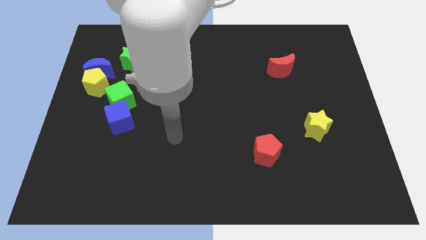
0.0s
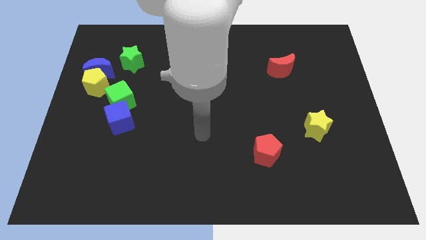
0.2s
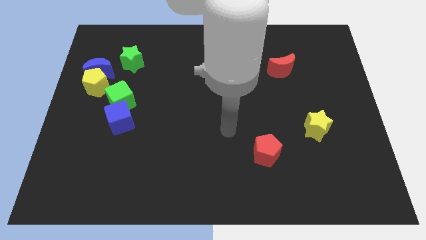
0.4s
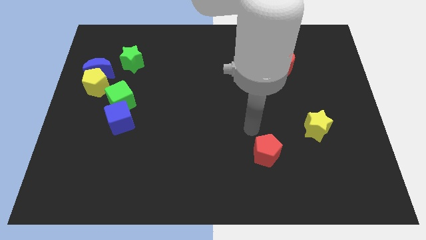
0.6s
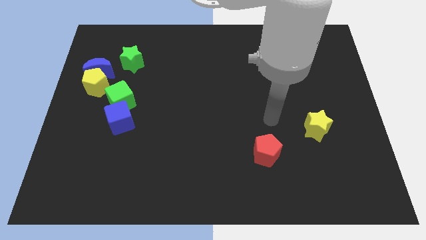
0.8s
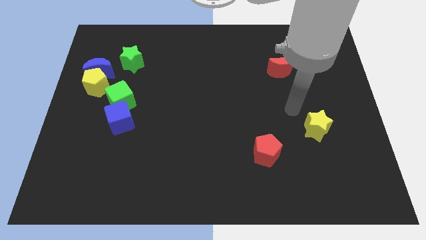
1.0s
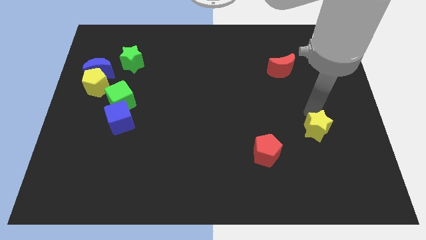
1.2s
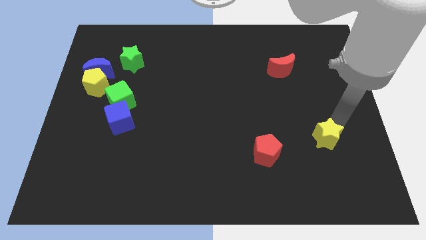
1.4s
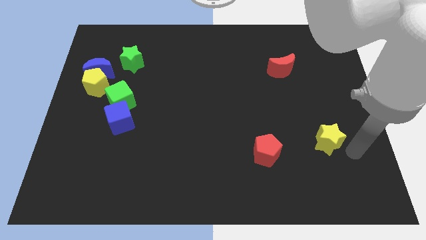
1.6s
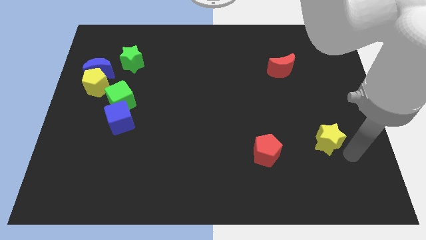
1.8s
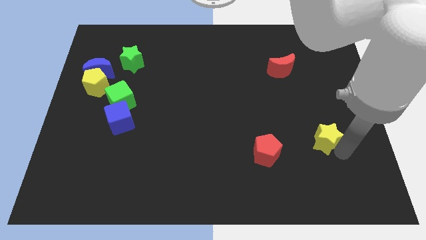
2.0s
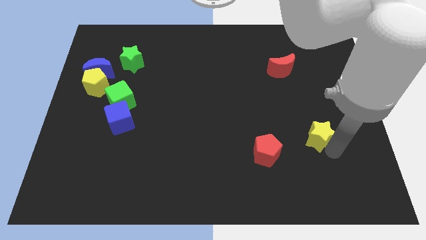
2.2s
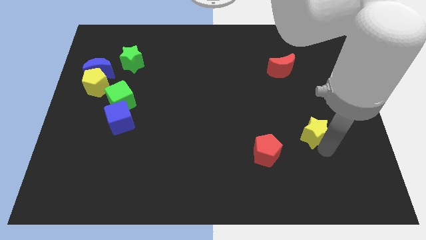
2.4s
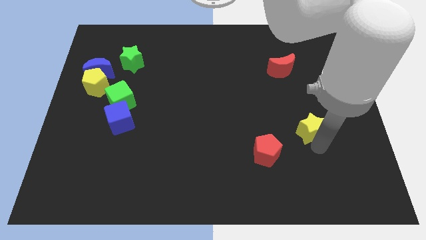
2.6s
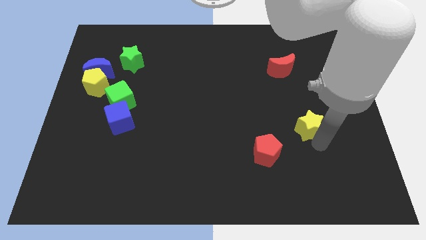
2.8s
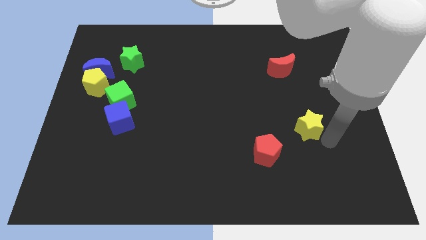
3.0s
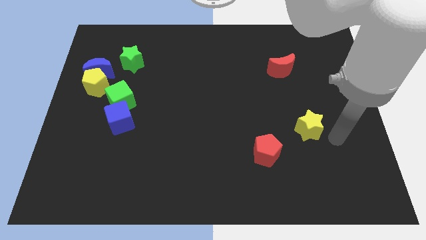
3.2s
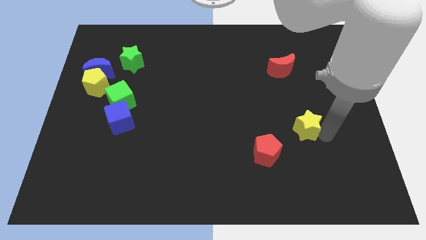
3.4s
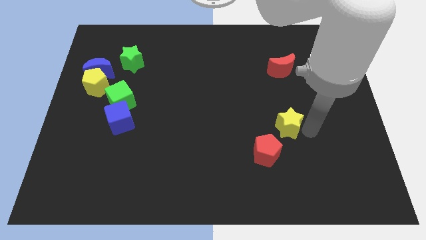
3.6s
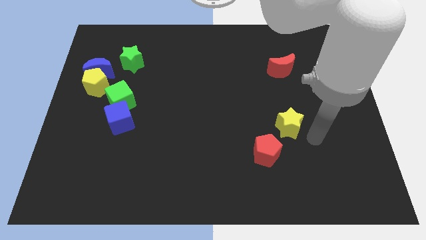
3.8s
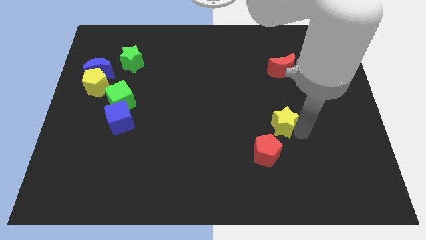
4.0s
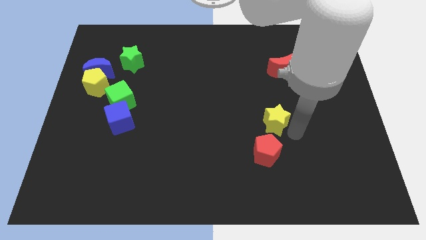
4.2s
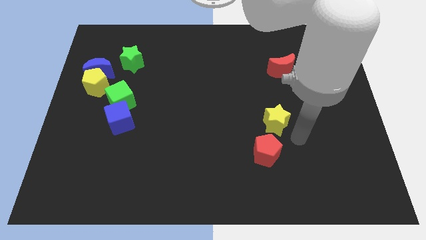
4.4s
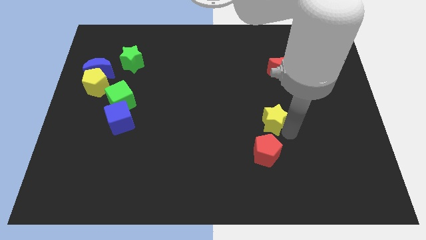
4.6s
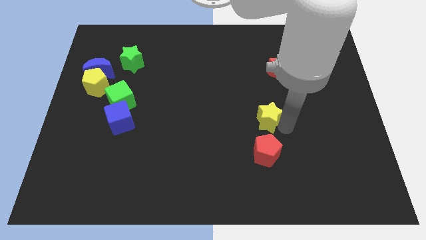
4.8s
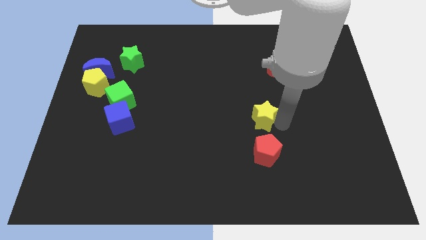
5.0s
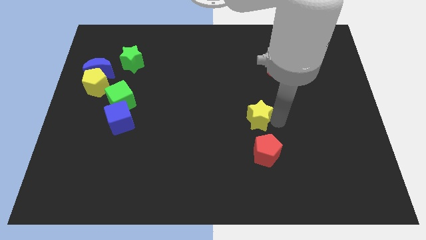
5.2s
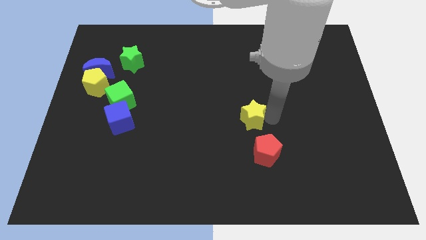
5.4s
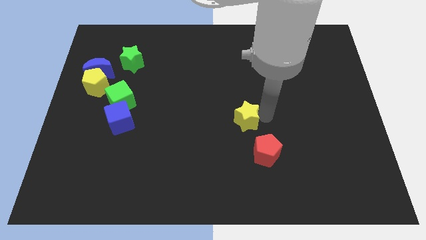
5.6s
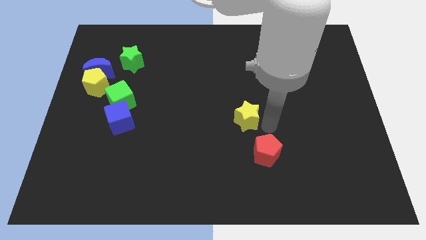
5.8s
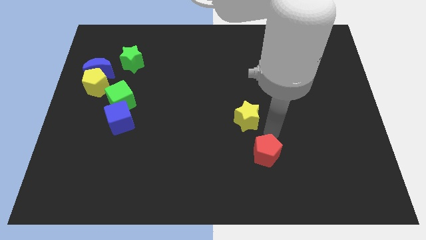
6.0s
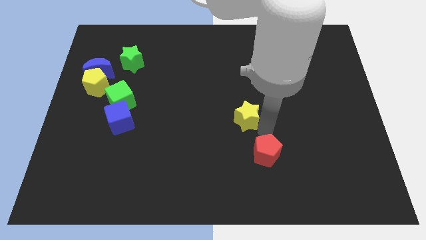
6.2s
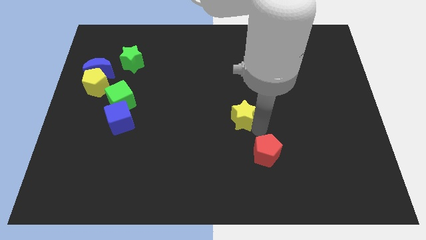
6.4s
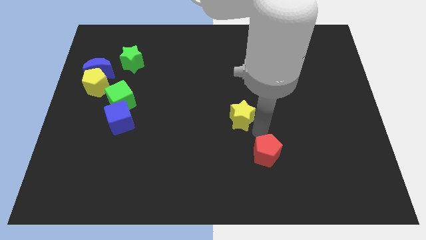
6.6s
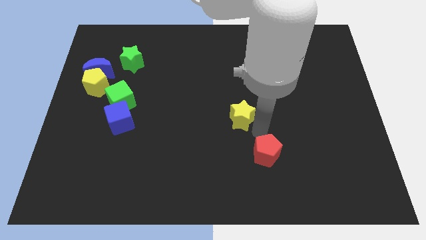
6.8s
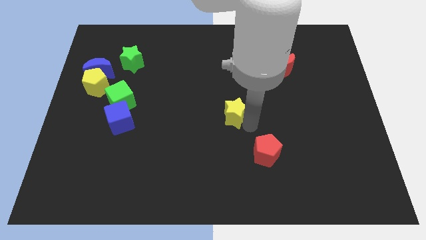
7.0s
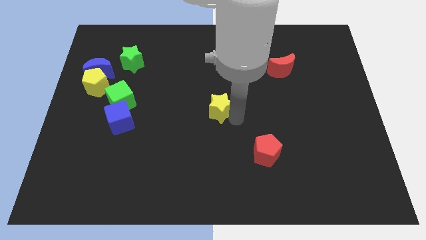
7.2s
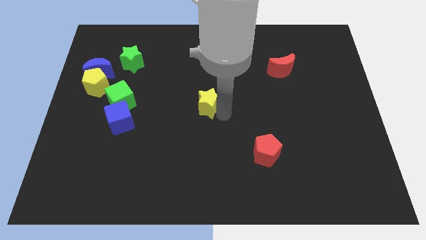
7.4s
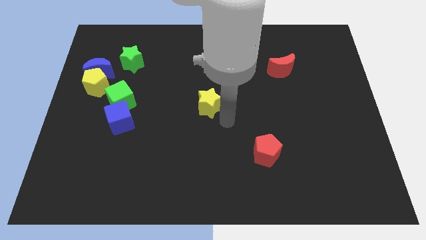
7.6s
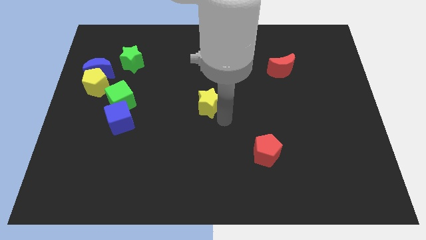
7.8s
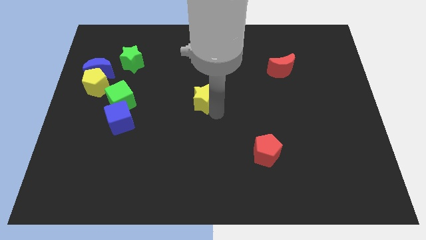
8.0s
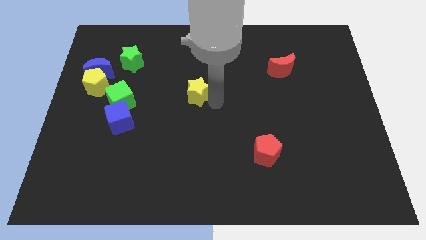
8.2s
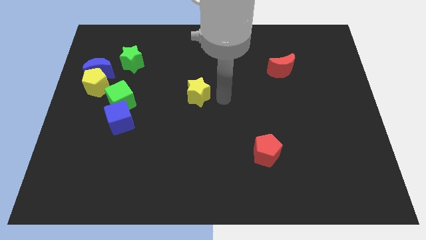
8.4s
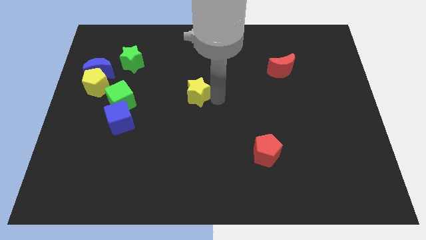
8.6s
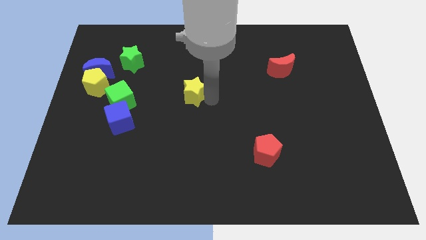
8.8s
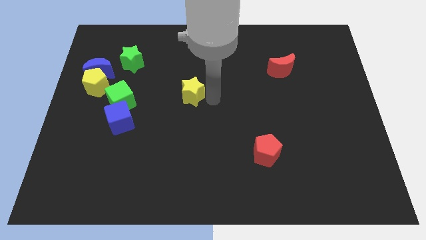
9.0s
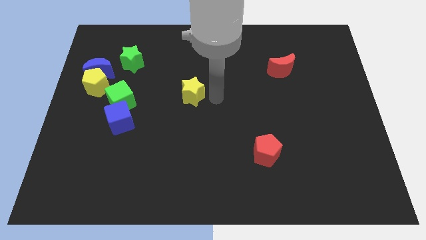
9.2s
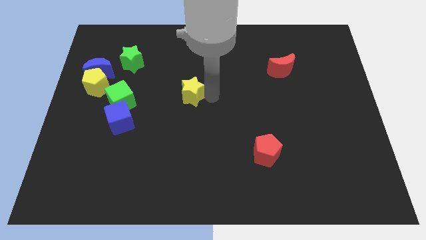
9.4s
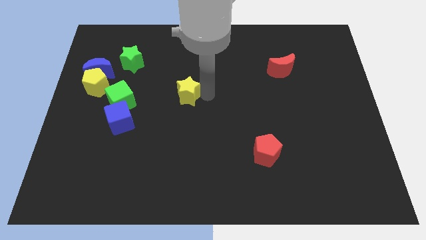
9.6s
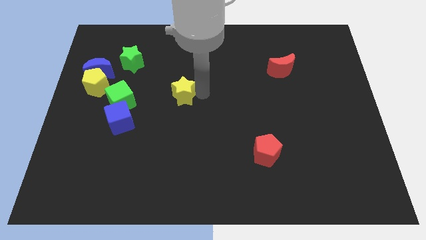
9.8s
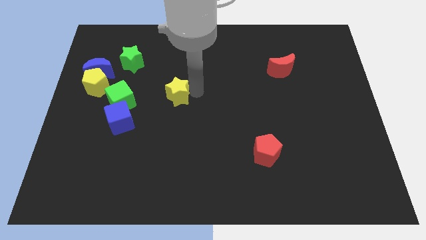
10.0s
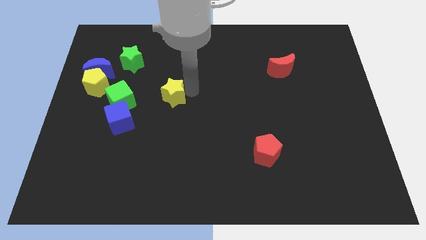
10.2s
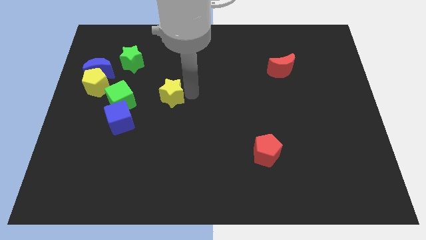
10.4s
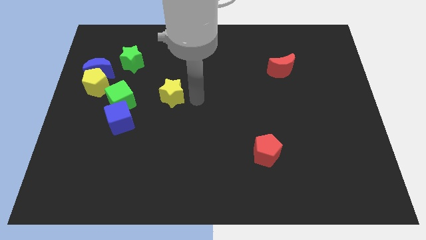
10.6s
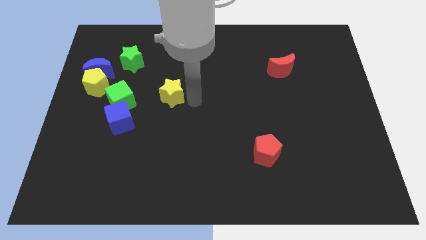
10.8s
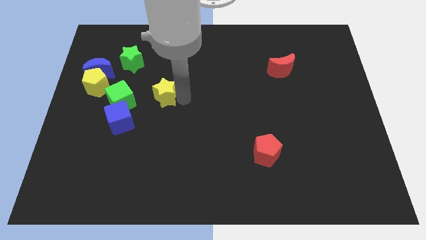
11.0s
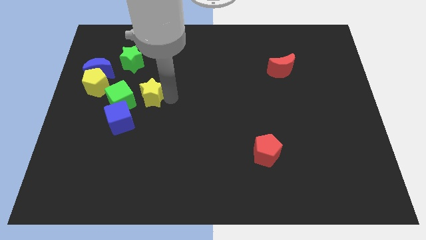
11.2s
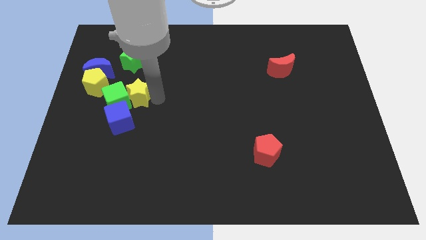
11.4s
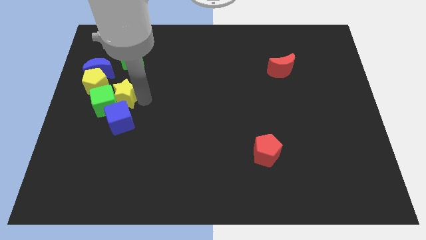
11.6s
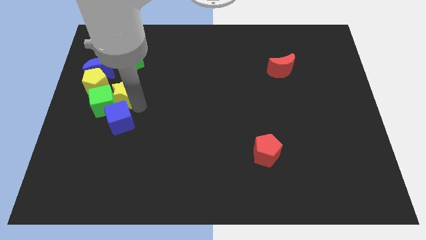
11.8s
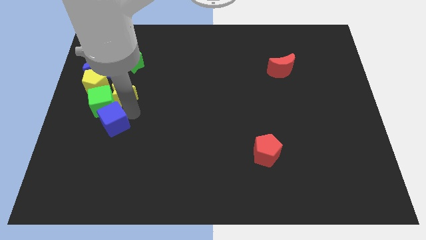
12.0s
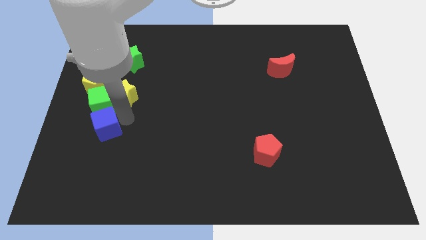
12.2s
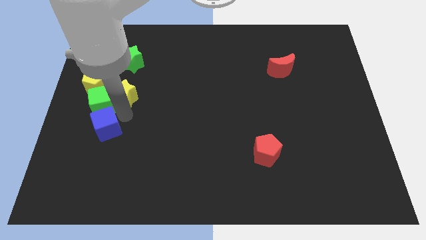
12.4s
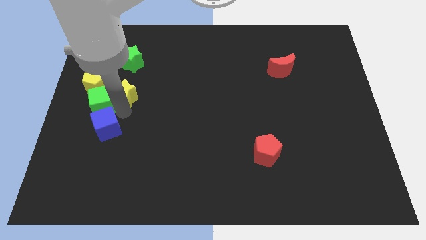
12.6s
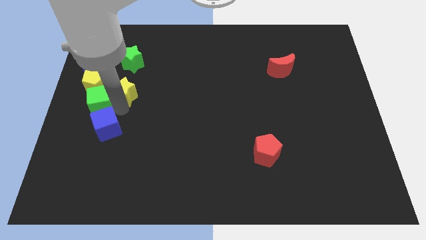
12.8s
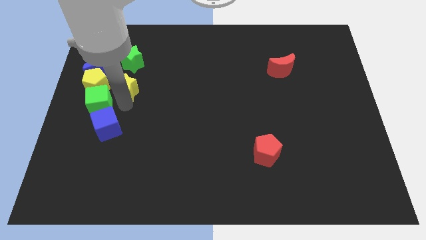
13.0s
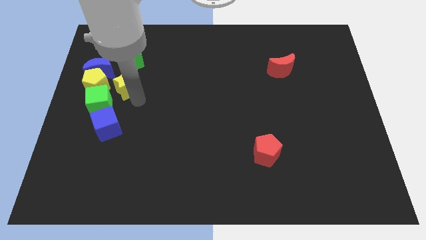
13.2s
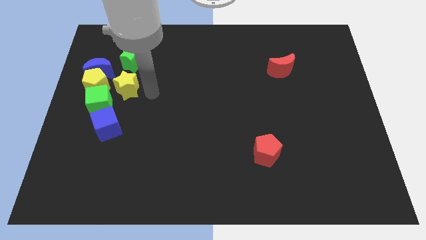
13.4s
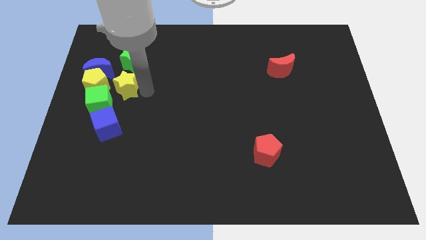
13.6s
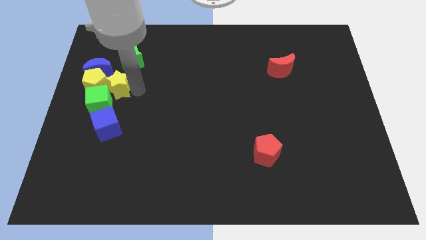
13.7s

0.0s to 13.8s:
put the yellow star towards the yellow pentagon

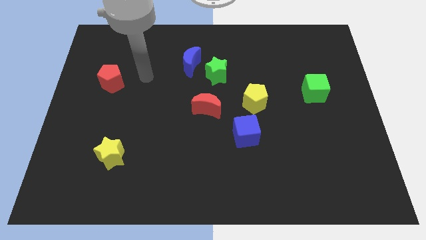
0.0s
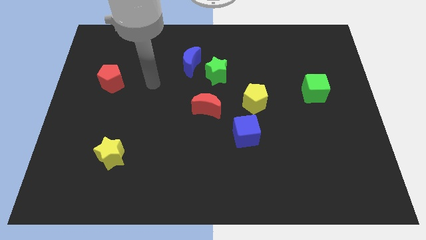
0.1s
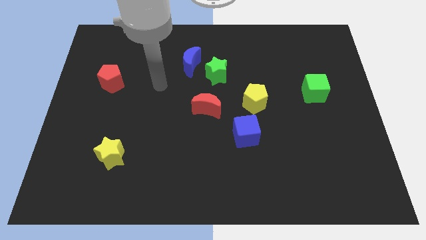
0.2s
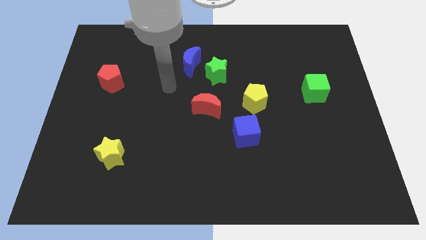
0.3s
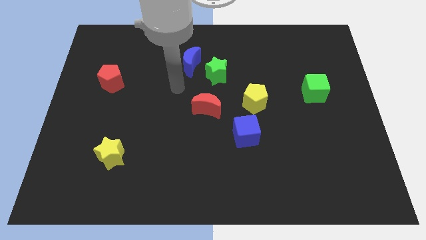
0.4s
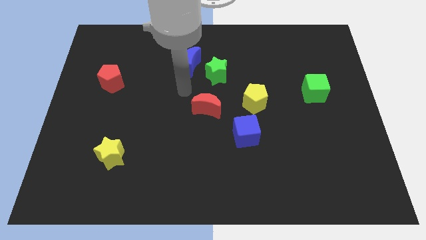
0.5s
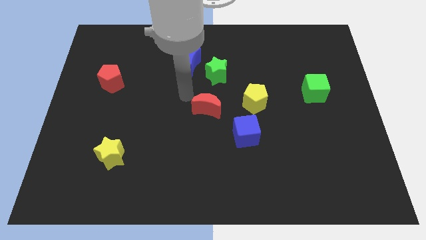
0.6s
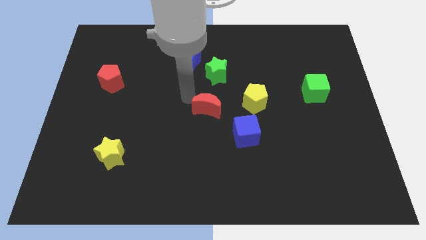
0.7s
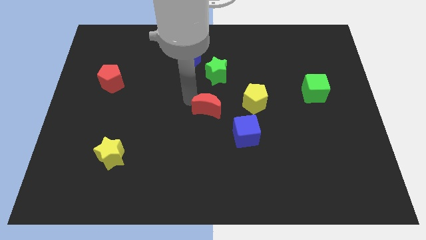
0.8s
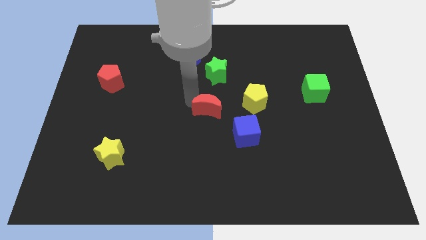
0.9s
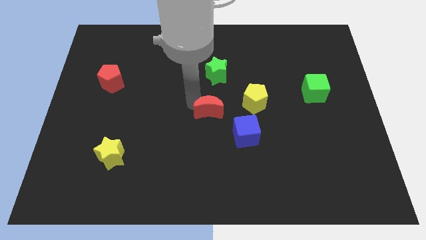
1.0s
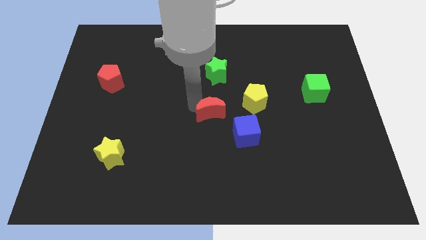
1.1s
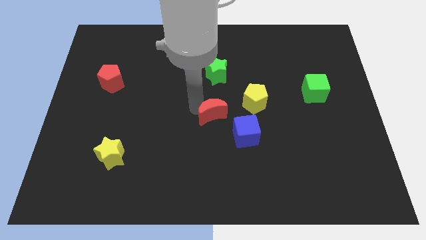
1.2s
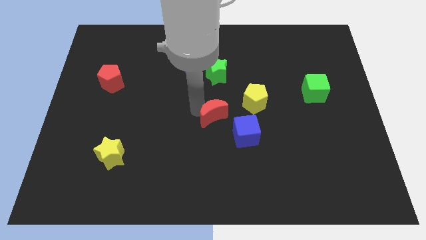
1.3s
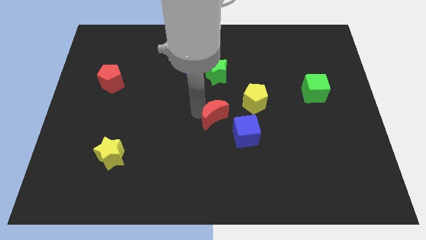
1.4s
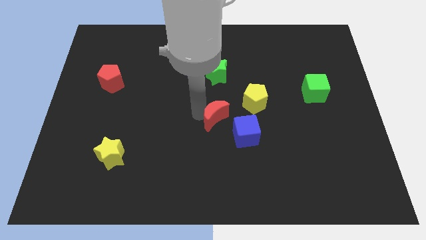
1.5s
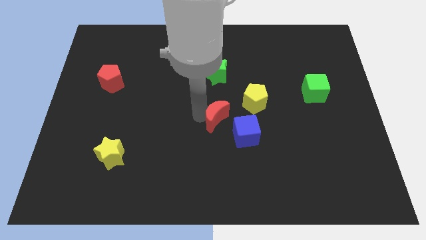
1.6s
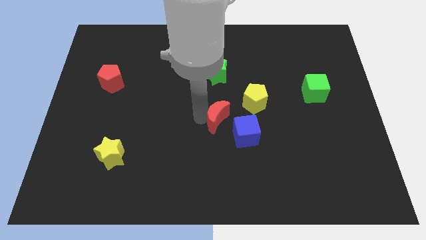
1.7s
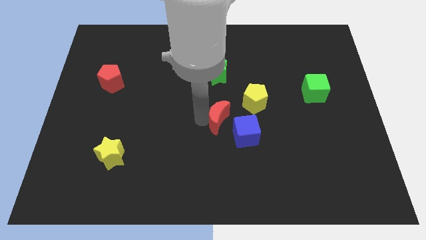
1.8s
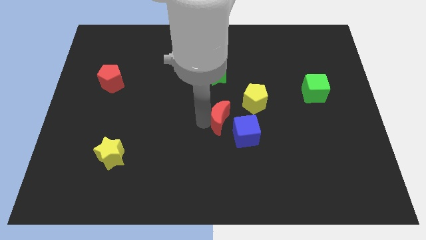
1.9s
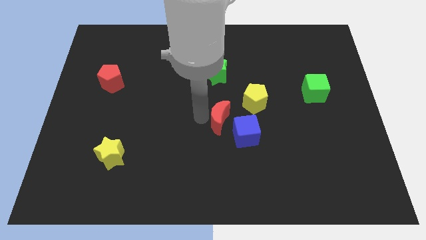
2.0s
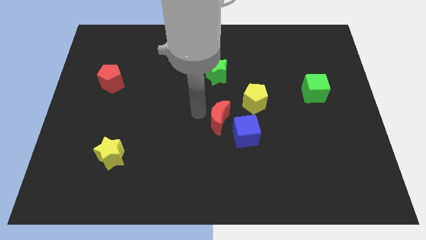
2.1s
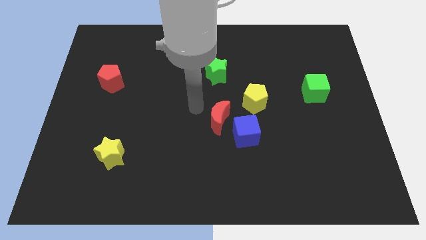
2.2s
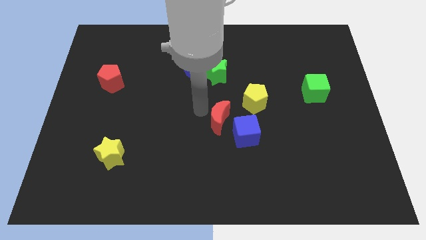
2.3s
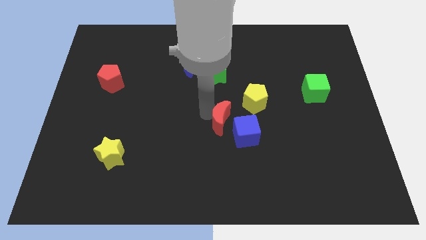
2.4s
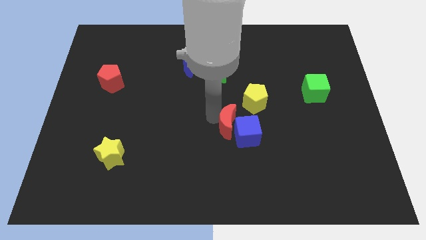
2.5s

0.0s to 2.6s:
slide the red moon close to the blue cube
